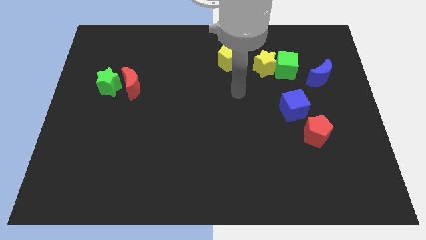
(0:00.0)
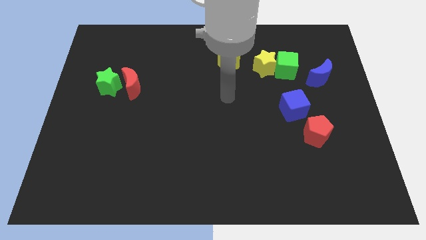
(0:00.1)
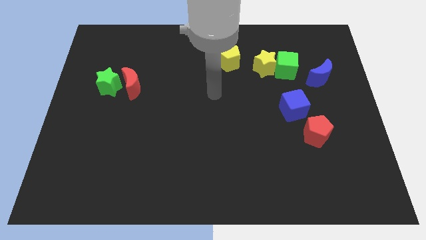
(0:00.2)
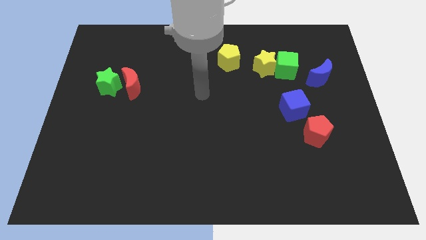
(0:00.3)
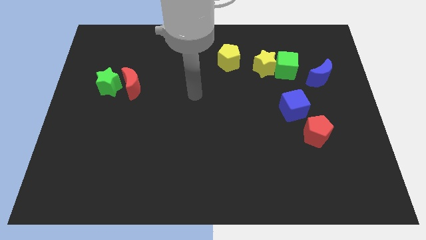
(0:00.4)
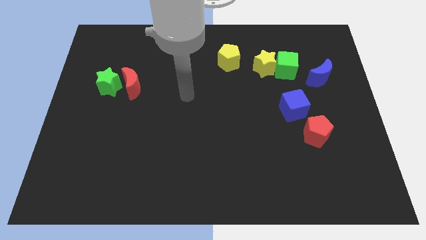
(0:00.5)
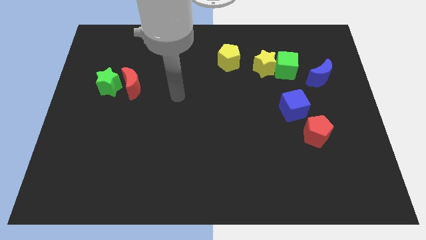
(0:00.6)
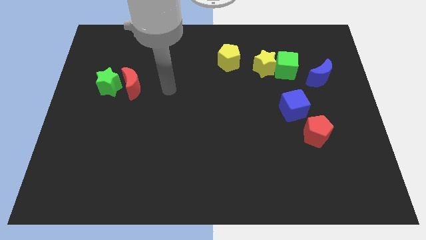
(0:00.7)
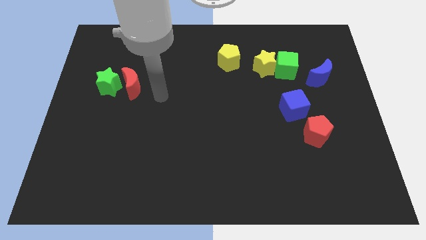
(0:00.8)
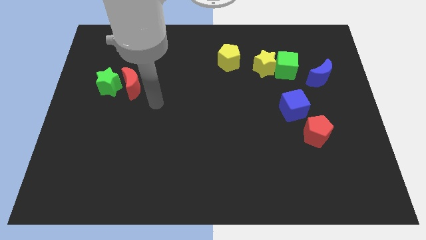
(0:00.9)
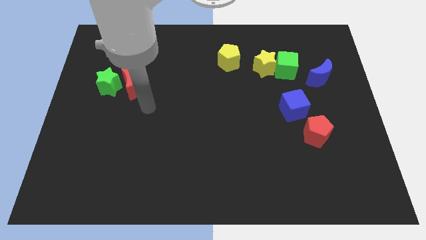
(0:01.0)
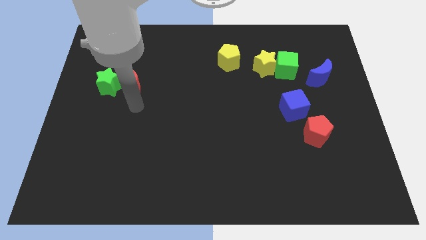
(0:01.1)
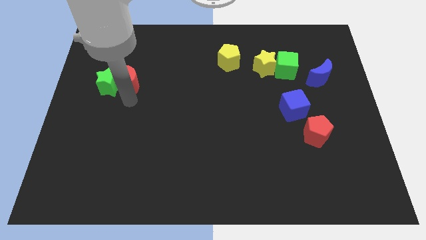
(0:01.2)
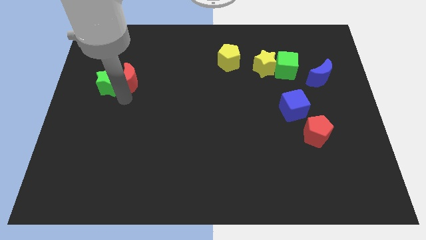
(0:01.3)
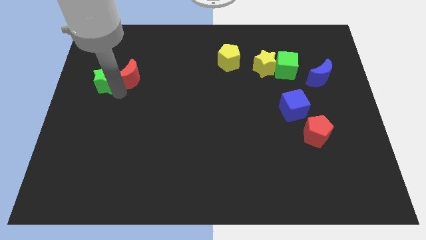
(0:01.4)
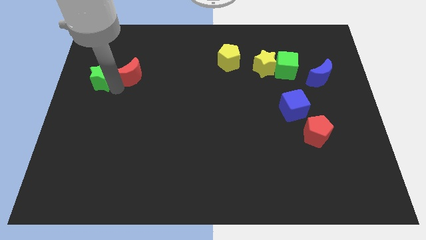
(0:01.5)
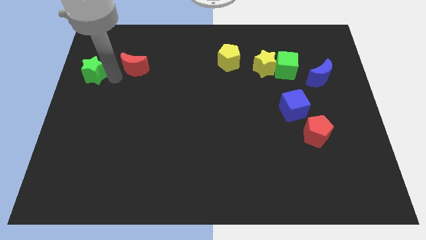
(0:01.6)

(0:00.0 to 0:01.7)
pull the red moon apart from the green star

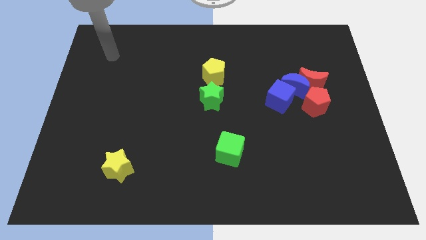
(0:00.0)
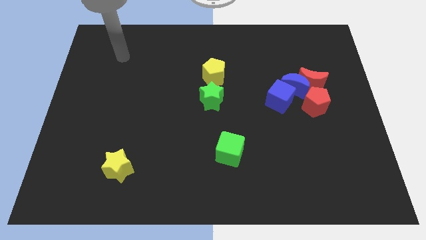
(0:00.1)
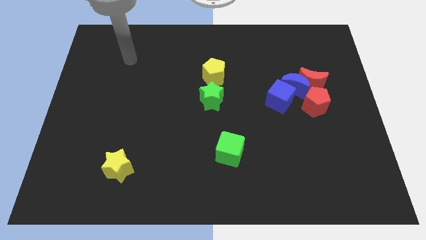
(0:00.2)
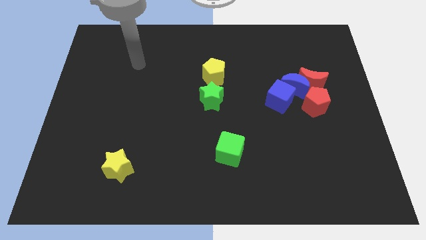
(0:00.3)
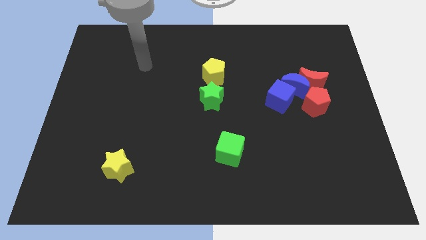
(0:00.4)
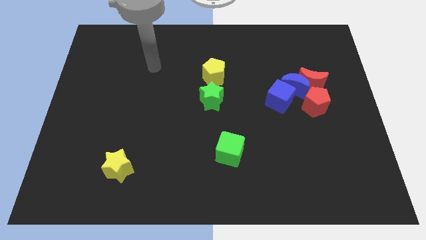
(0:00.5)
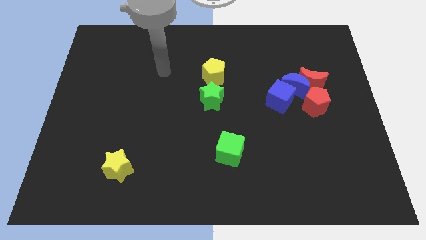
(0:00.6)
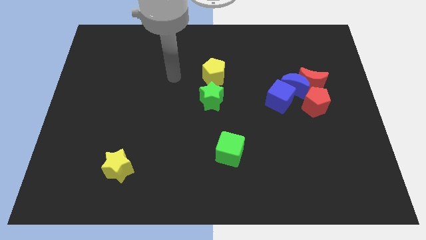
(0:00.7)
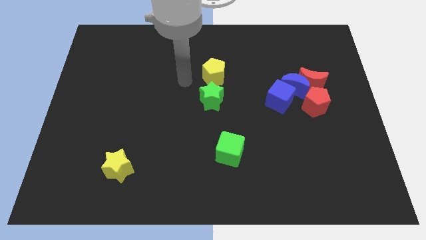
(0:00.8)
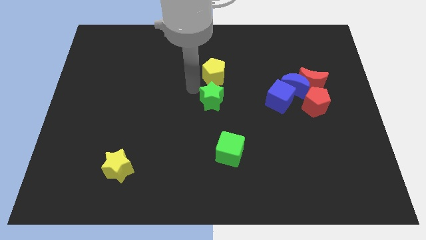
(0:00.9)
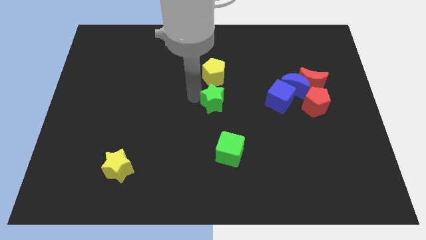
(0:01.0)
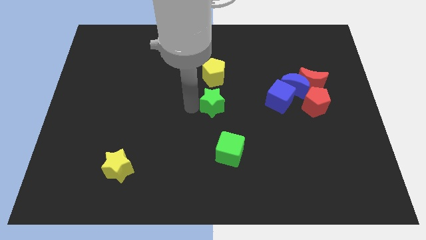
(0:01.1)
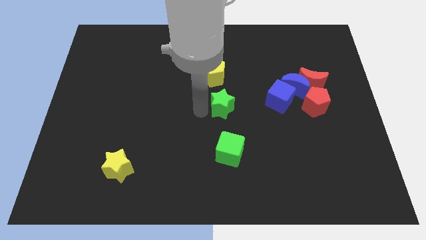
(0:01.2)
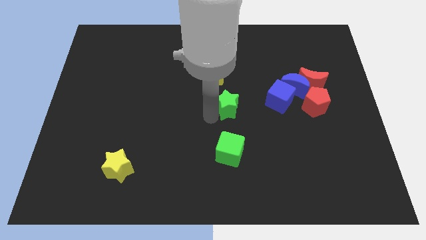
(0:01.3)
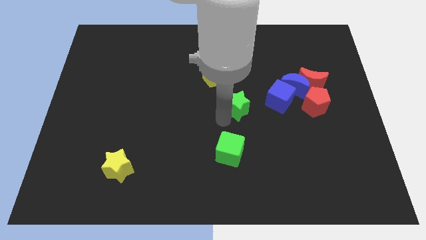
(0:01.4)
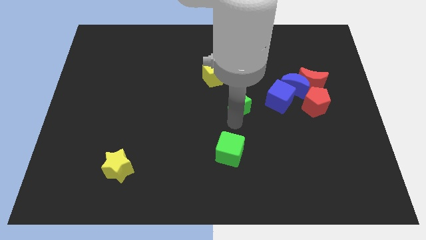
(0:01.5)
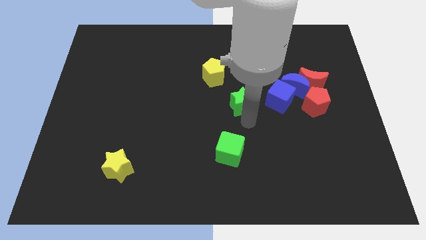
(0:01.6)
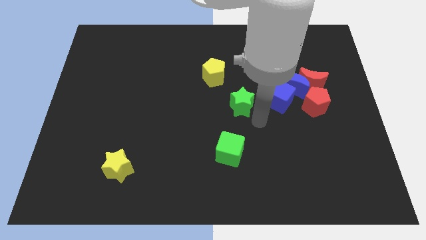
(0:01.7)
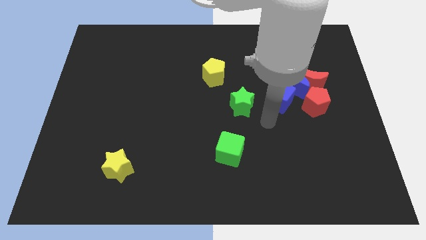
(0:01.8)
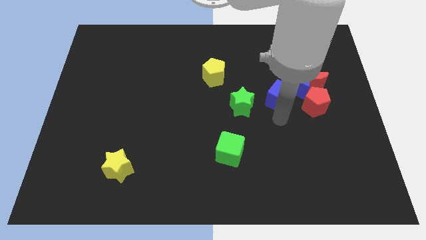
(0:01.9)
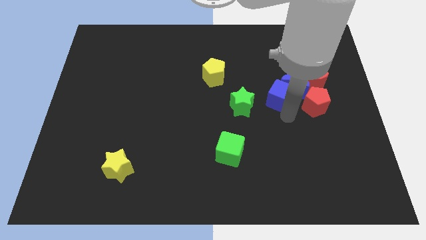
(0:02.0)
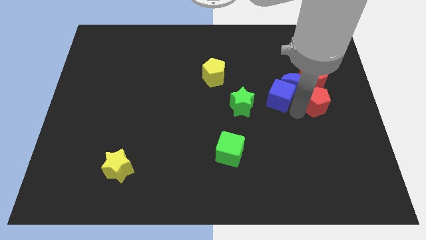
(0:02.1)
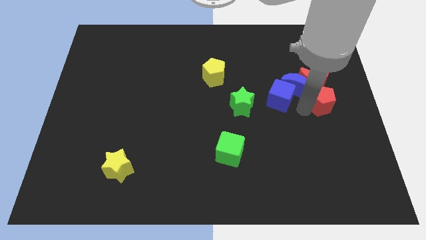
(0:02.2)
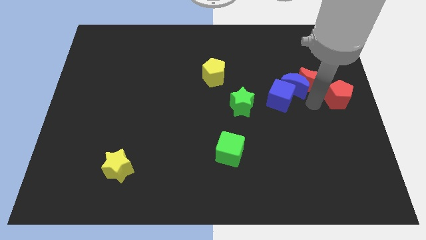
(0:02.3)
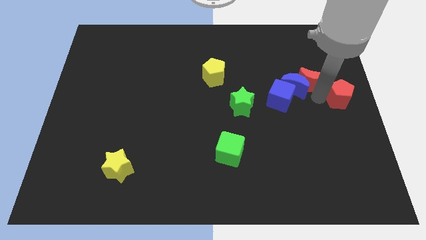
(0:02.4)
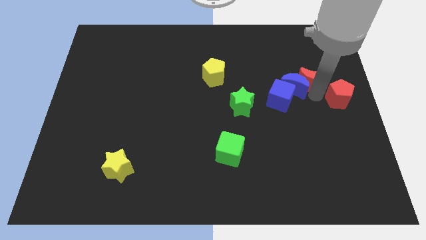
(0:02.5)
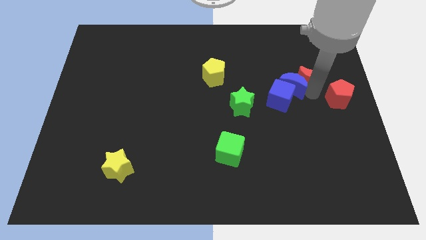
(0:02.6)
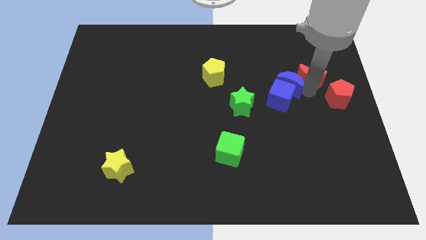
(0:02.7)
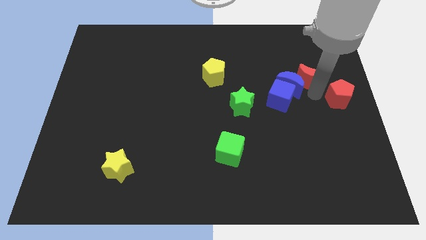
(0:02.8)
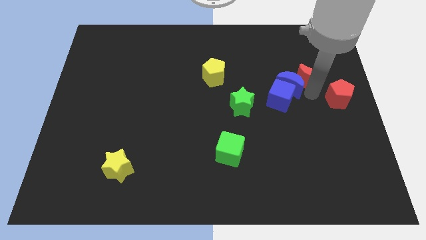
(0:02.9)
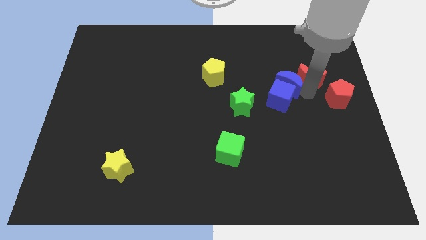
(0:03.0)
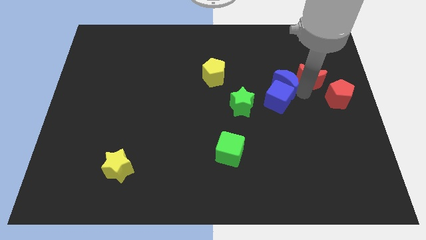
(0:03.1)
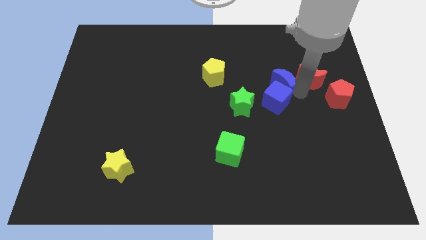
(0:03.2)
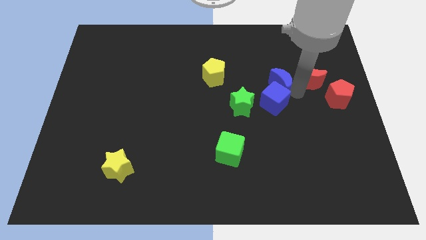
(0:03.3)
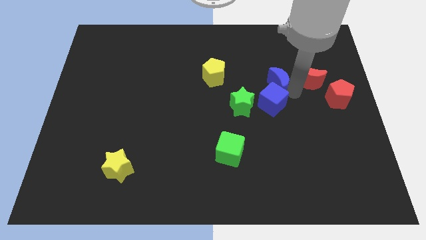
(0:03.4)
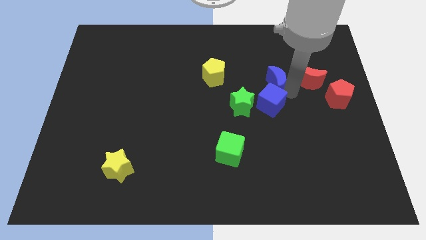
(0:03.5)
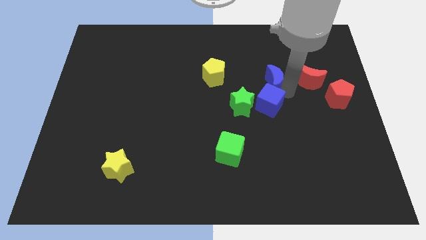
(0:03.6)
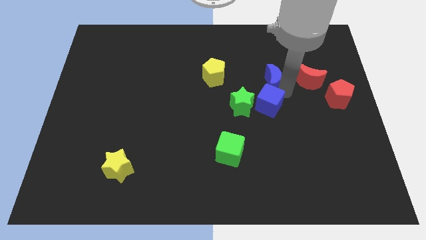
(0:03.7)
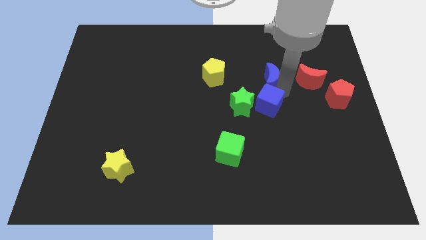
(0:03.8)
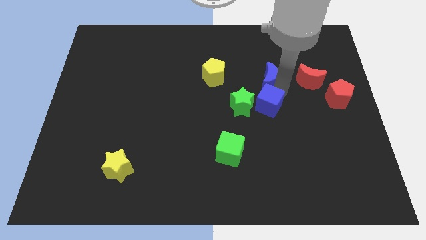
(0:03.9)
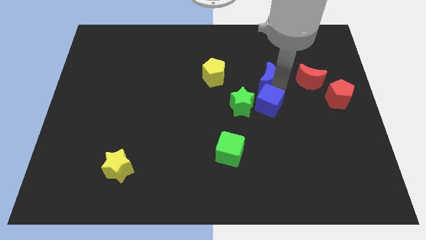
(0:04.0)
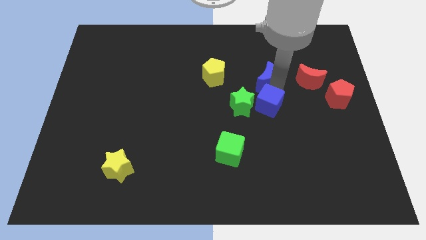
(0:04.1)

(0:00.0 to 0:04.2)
move the blue moon away from the red moon, blue cube, and red pentagon

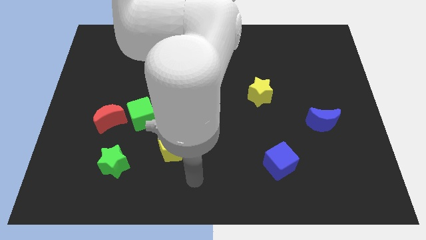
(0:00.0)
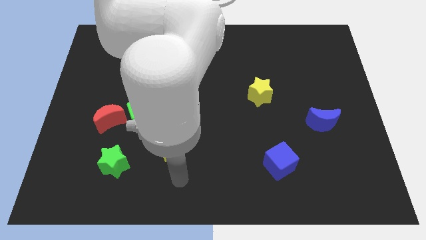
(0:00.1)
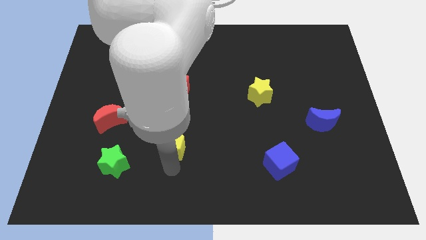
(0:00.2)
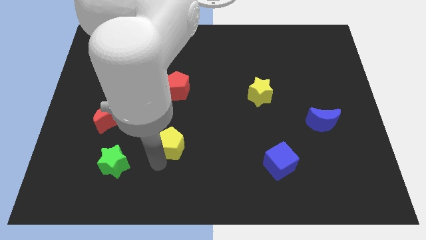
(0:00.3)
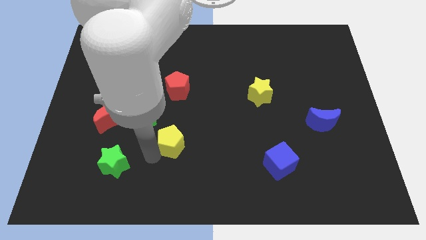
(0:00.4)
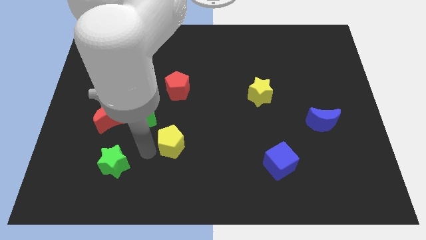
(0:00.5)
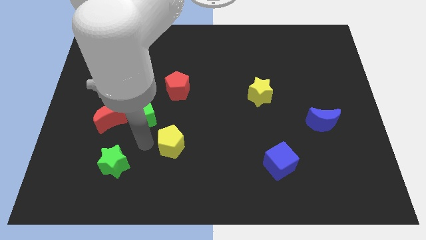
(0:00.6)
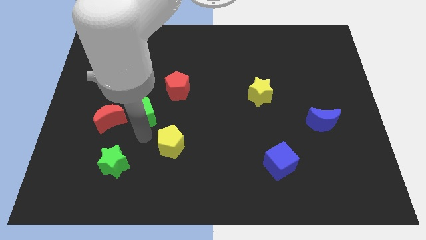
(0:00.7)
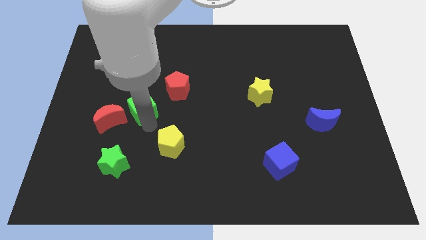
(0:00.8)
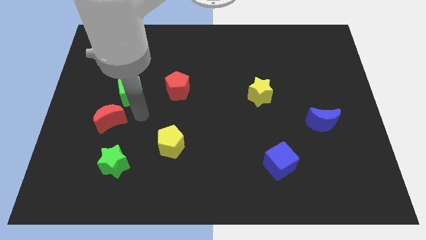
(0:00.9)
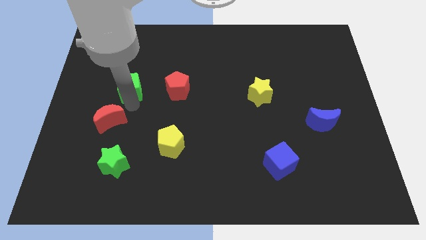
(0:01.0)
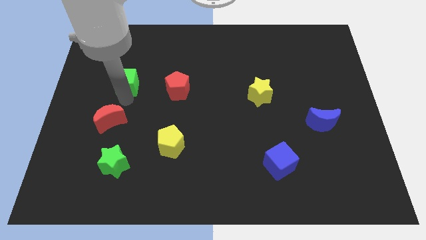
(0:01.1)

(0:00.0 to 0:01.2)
separate the red moon from the green cube

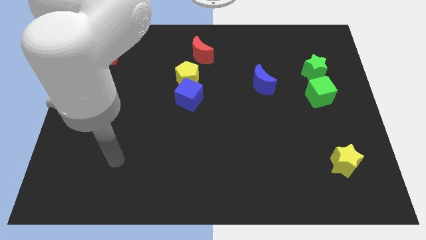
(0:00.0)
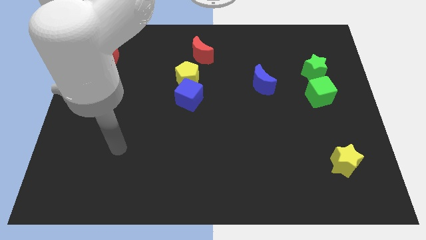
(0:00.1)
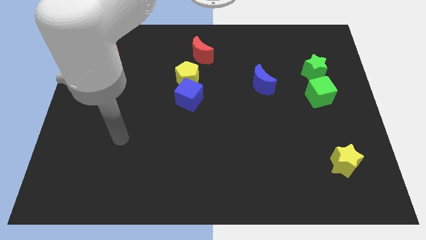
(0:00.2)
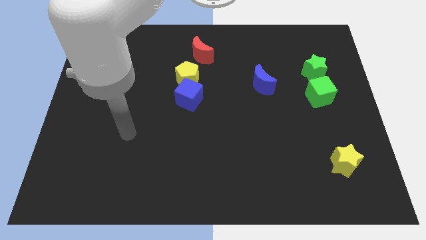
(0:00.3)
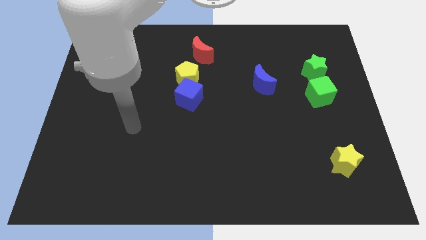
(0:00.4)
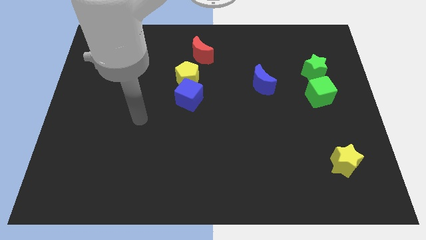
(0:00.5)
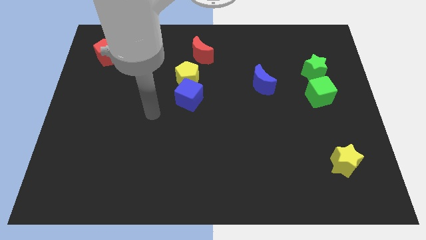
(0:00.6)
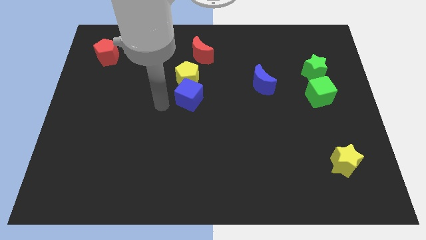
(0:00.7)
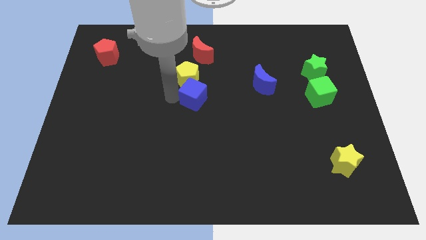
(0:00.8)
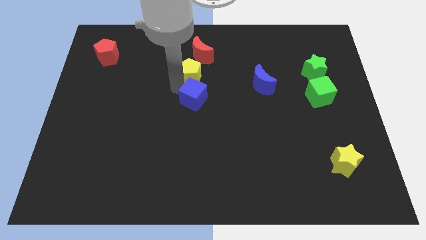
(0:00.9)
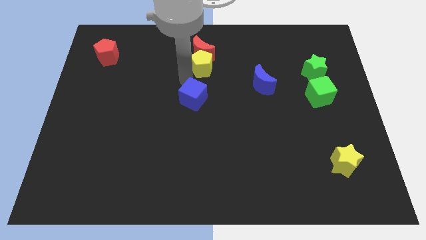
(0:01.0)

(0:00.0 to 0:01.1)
move the blue cube away from the yellow pentagon

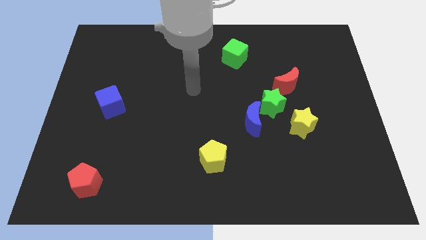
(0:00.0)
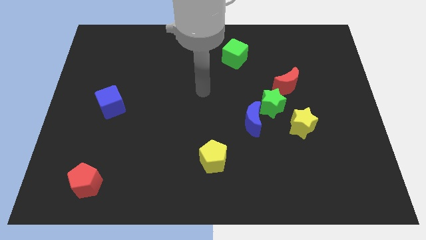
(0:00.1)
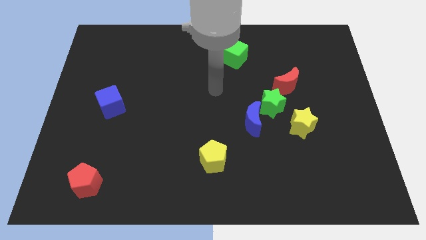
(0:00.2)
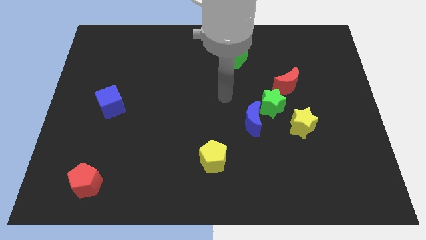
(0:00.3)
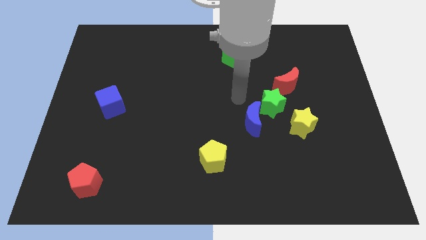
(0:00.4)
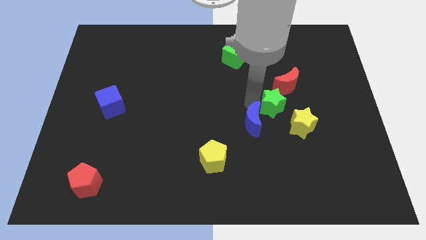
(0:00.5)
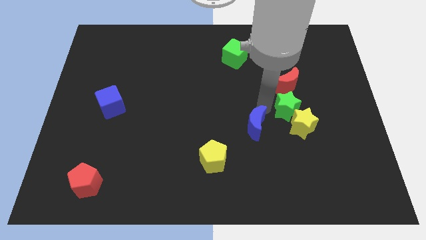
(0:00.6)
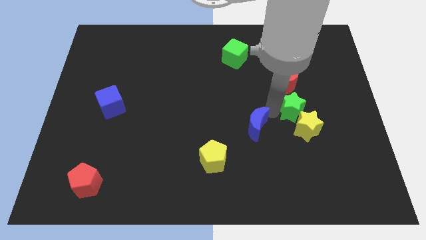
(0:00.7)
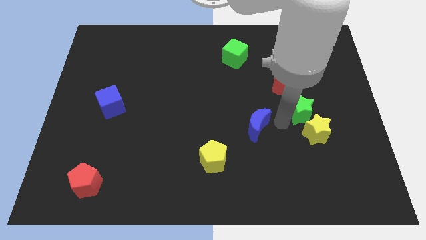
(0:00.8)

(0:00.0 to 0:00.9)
pull the blue moon apart from the green star

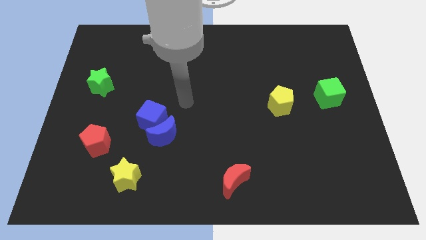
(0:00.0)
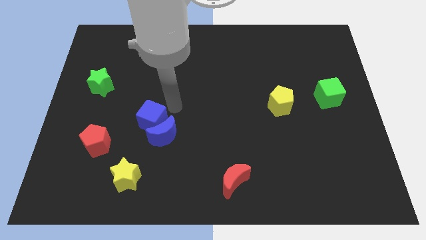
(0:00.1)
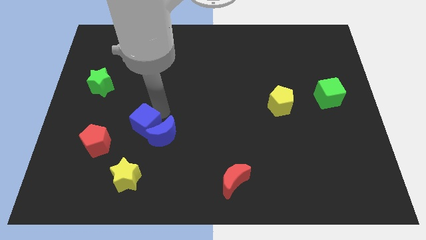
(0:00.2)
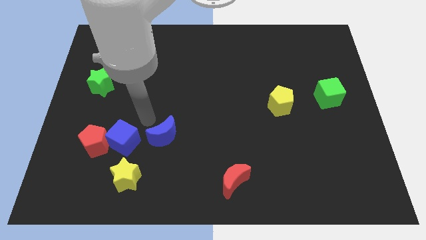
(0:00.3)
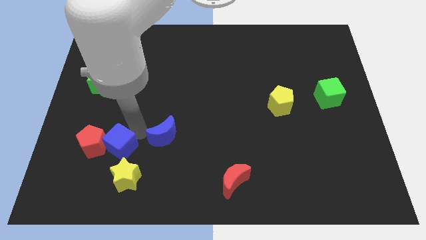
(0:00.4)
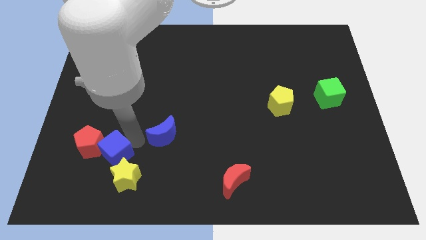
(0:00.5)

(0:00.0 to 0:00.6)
separate the blue moon from the blue cube
